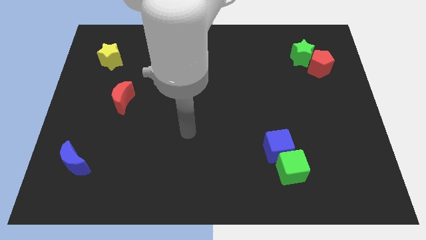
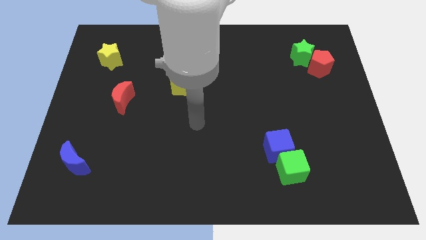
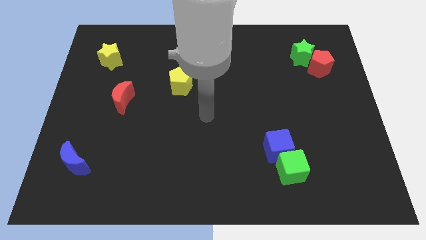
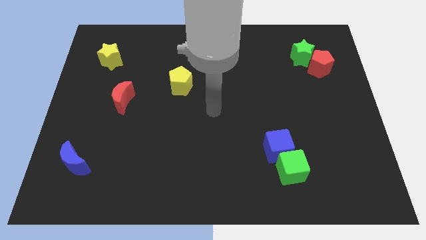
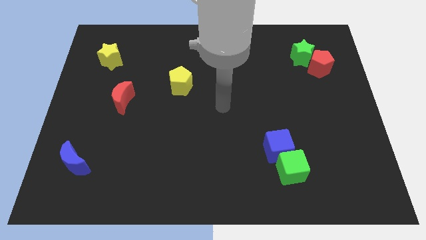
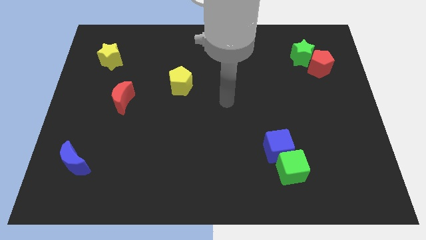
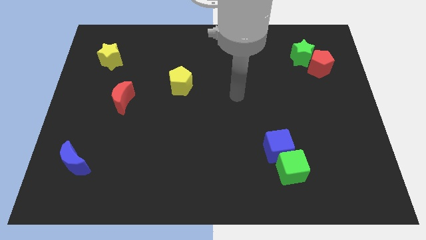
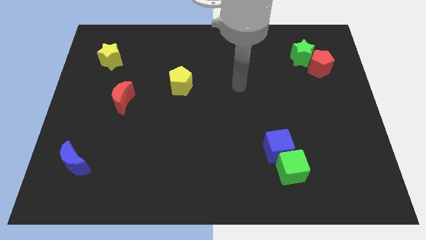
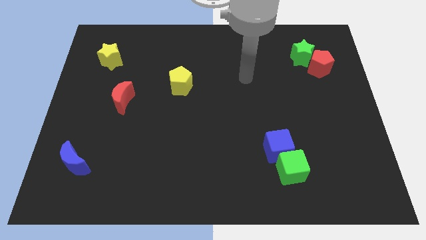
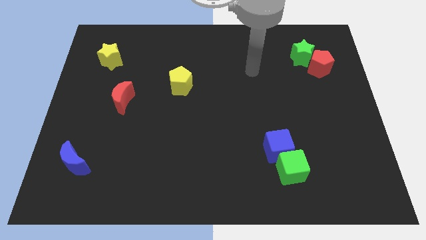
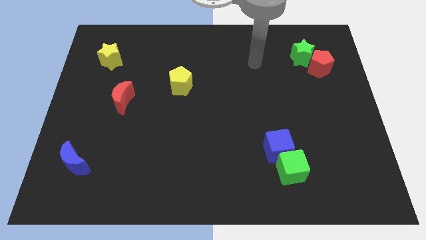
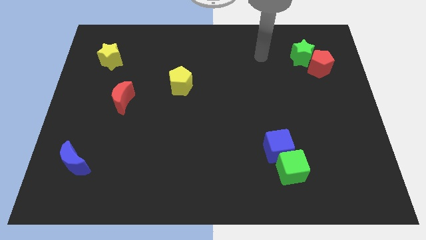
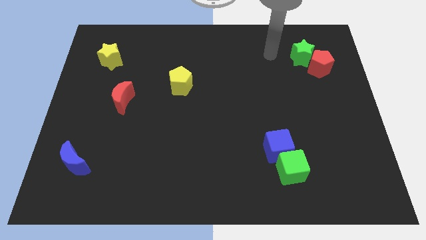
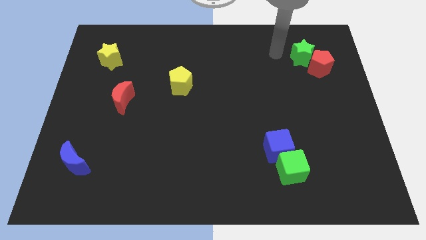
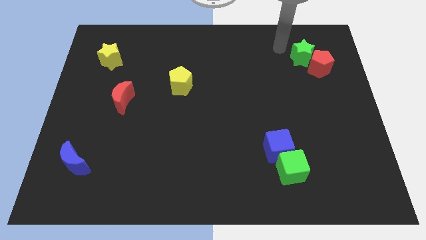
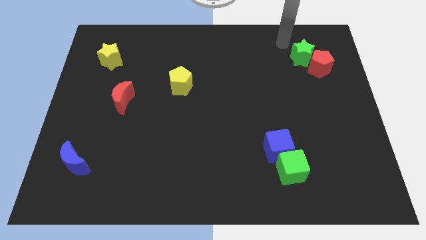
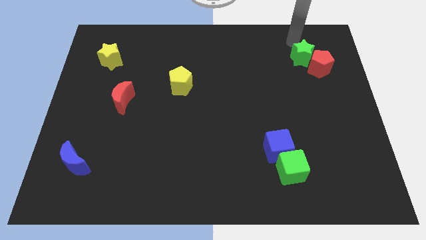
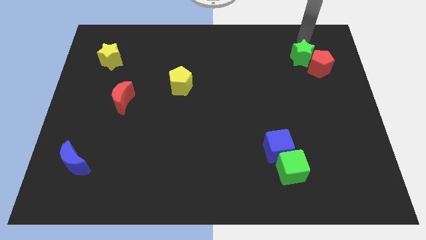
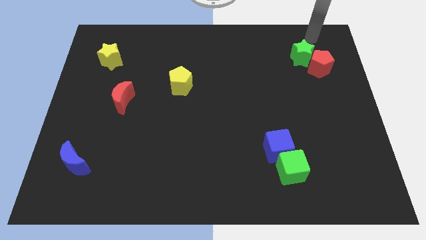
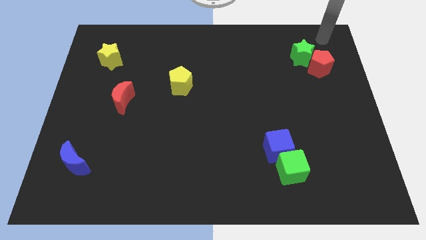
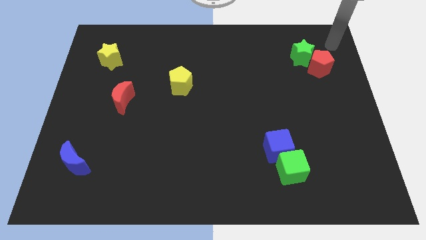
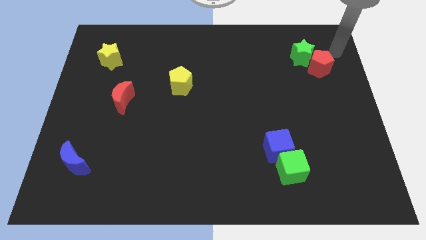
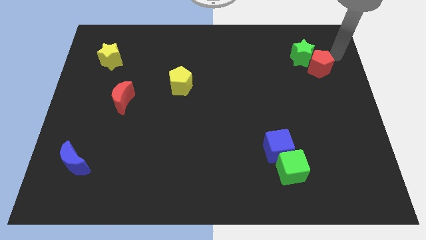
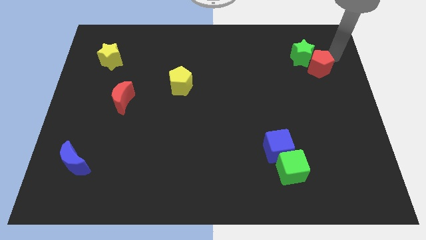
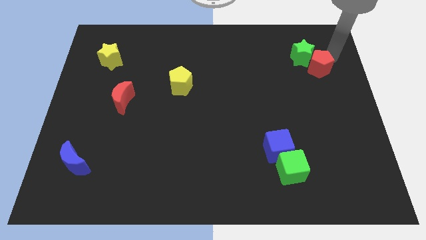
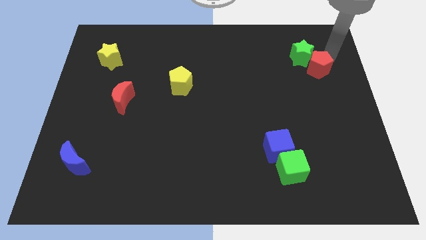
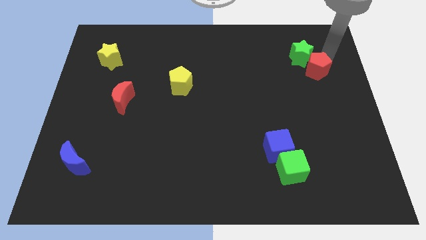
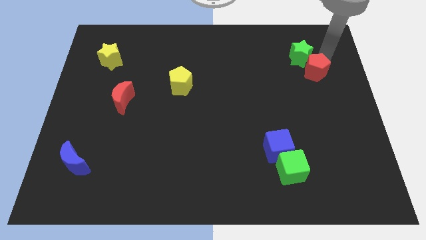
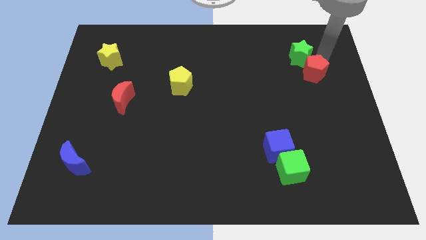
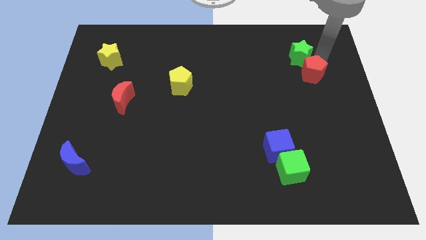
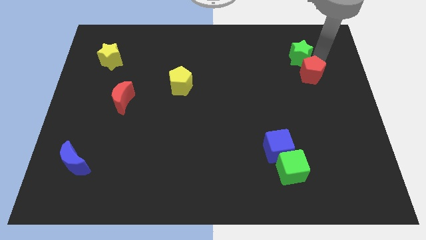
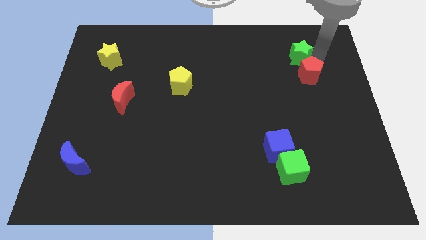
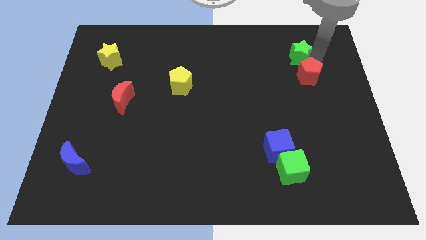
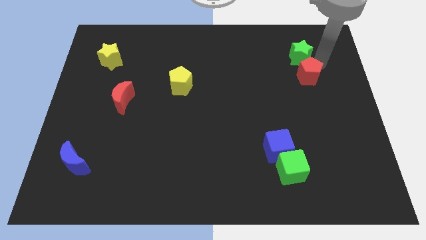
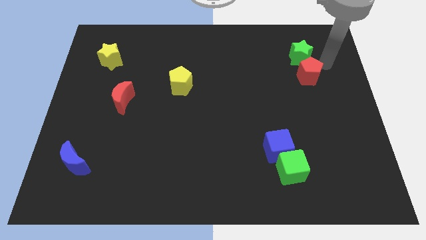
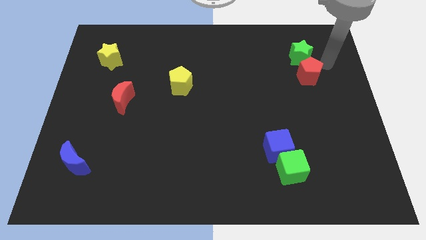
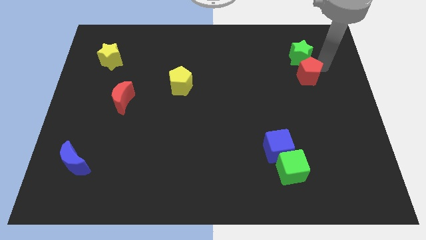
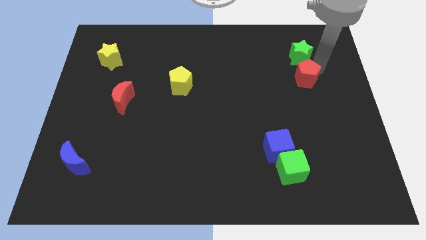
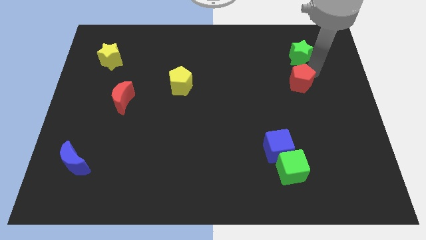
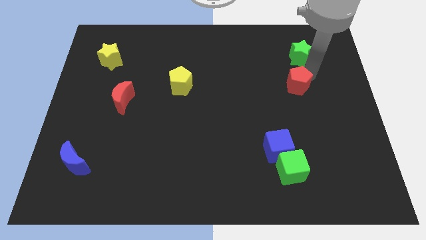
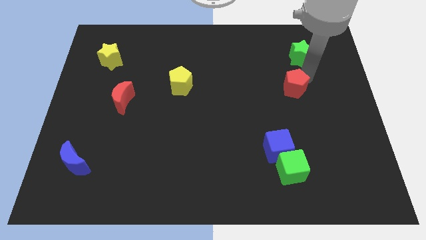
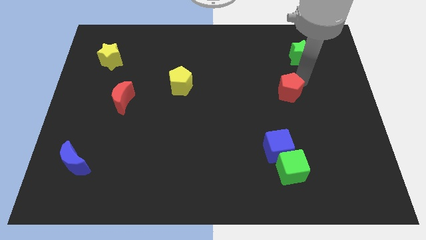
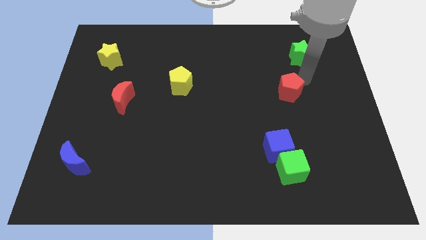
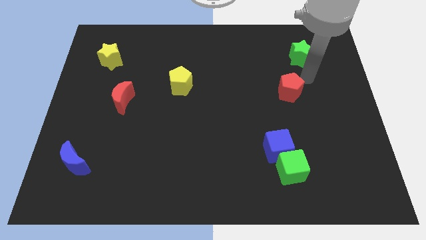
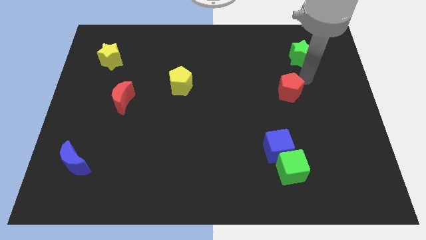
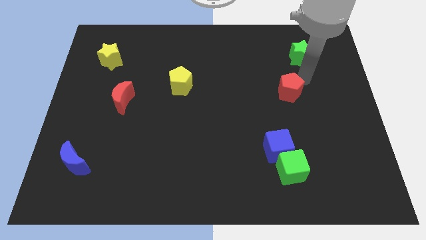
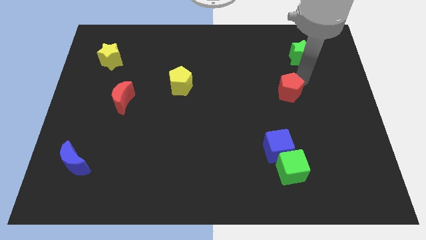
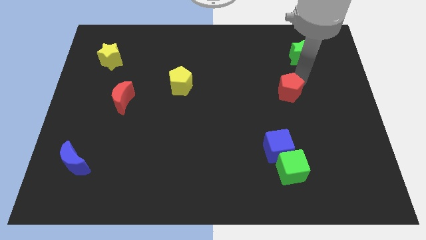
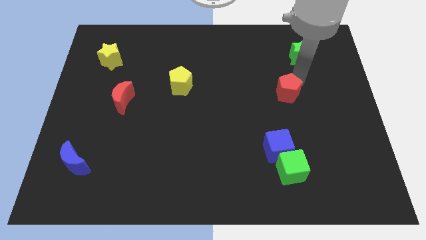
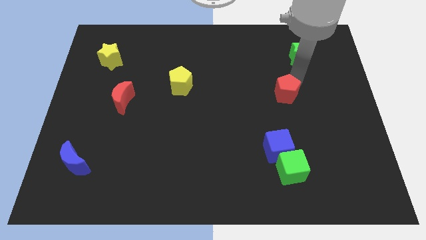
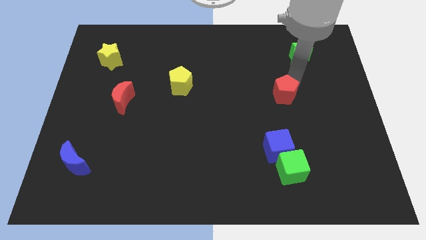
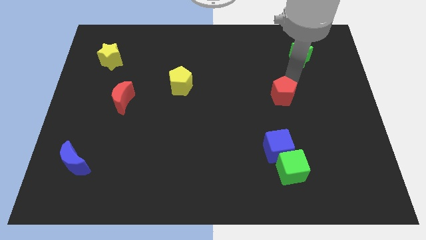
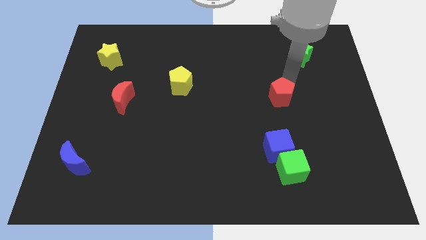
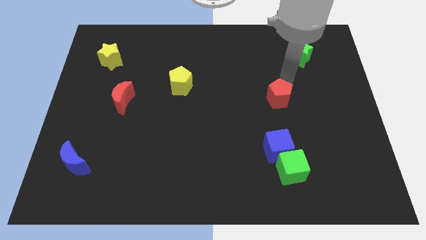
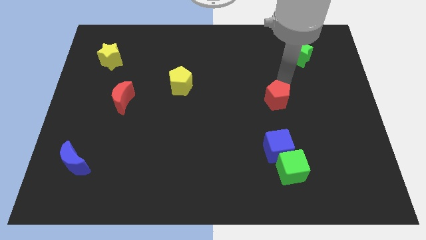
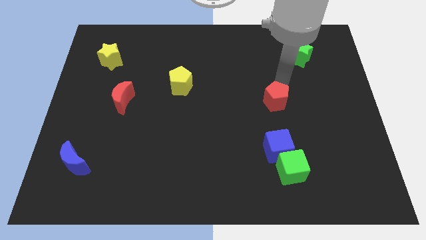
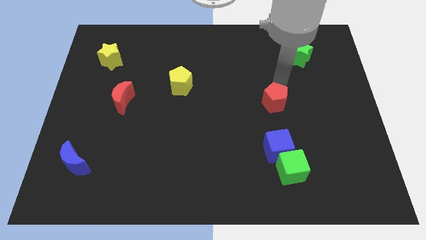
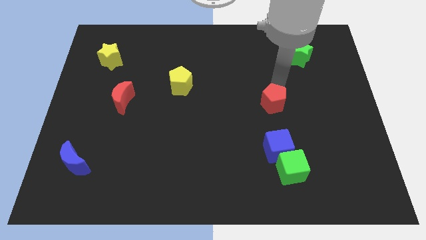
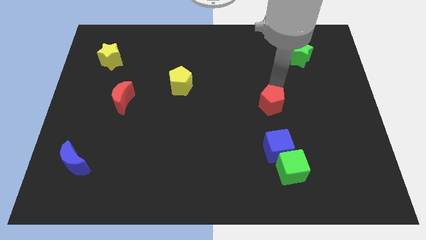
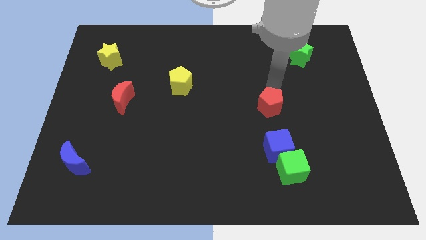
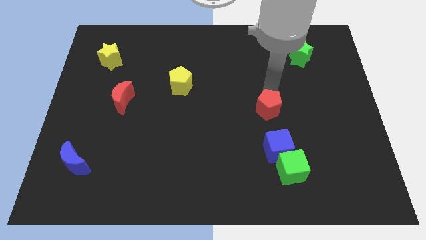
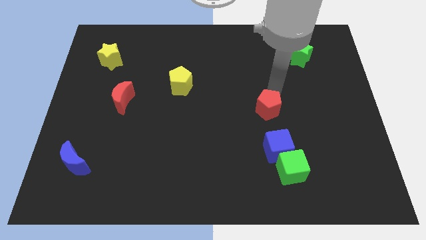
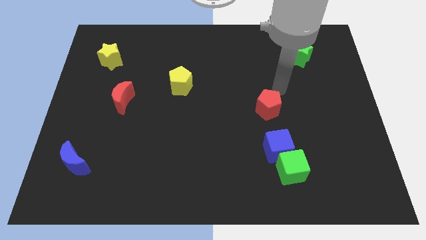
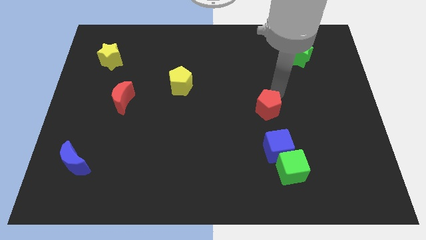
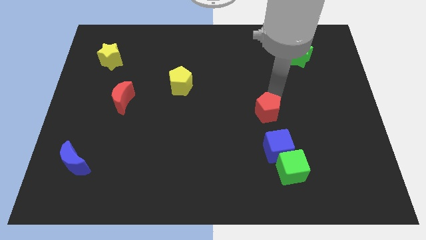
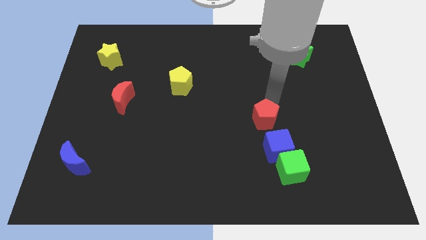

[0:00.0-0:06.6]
slide the red pentagon diagonally up and to the left of the blue cube

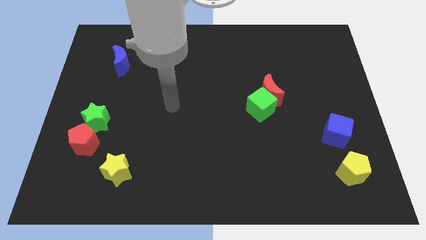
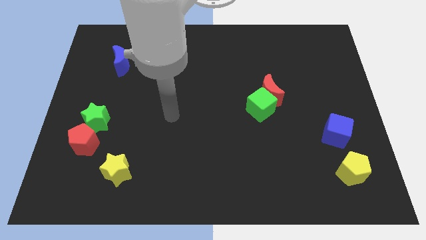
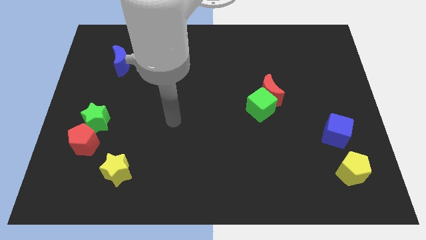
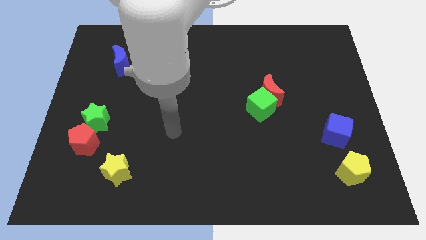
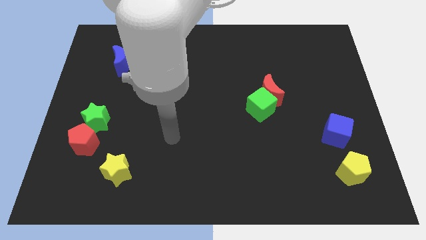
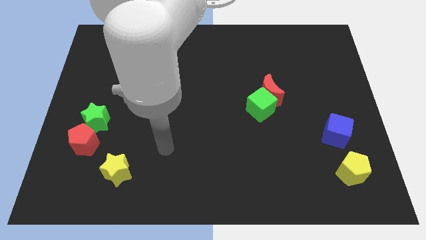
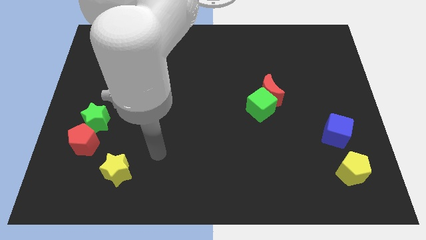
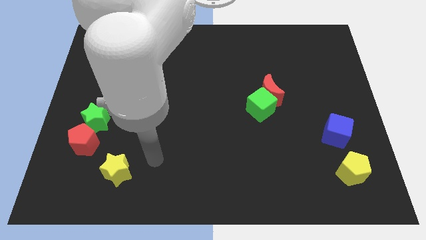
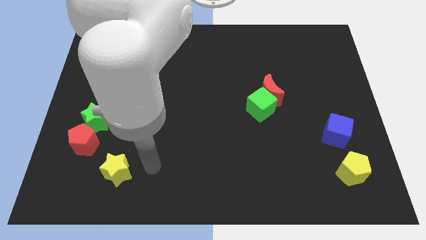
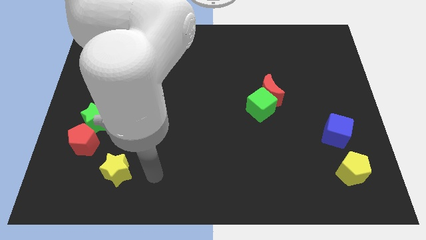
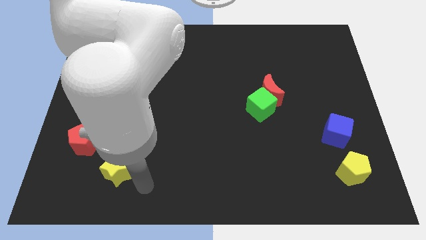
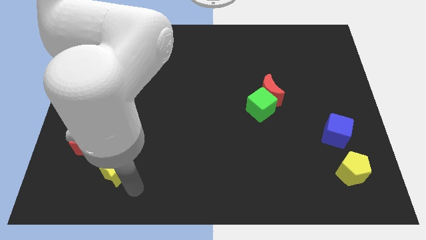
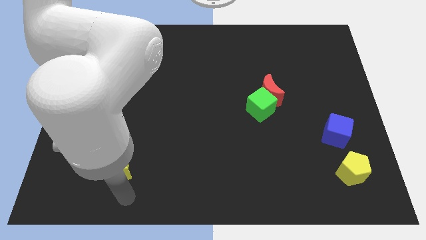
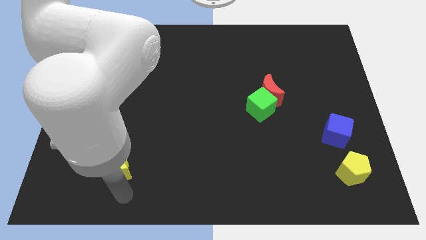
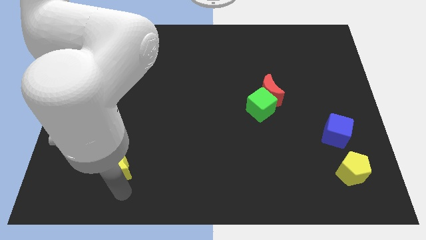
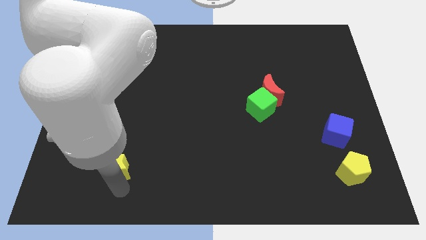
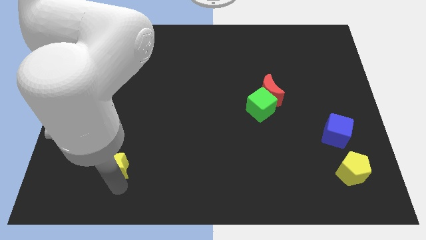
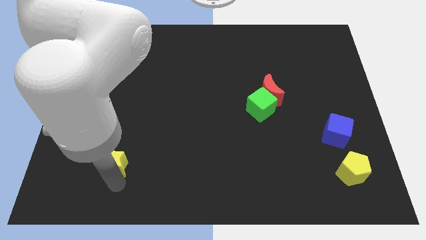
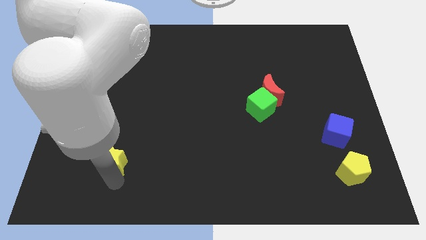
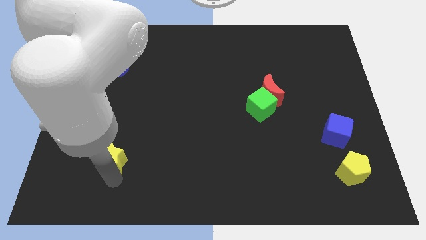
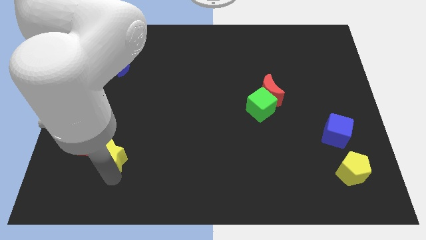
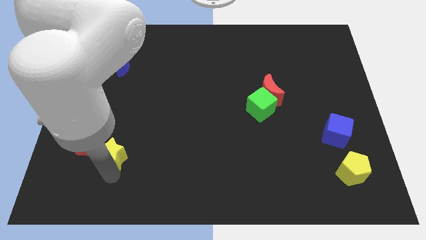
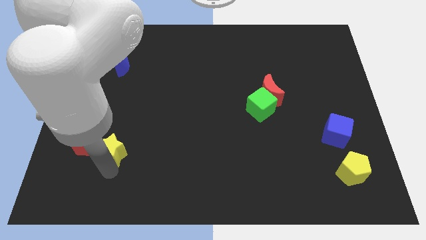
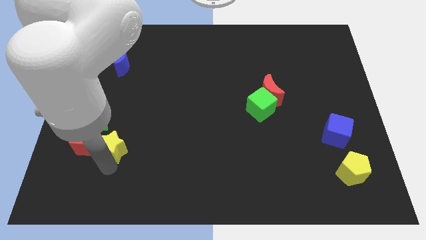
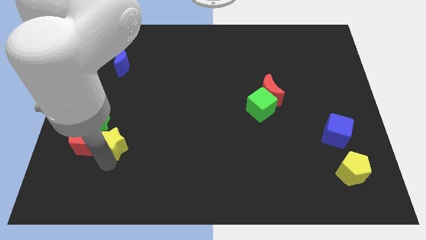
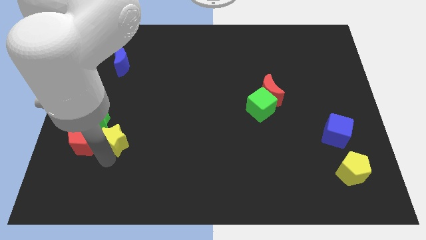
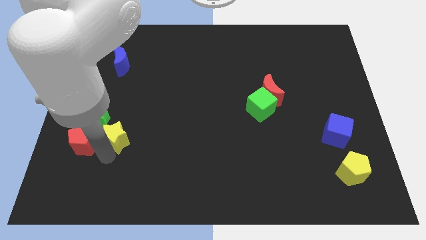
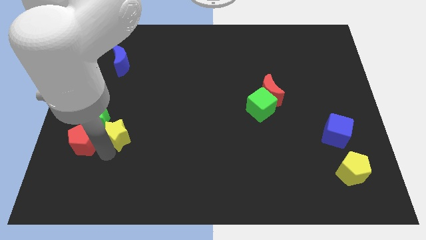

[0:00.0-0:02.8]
slide the yellow star to the right of the green star
